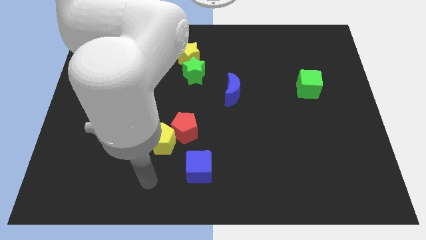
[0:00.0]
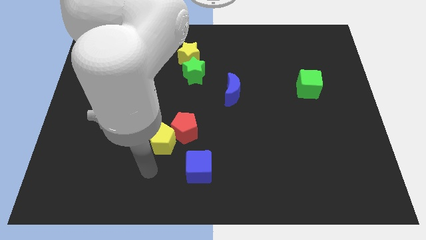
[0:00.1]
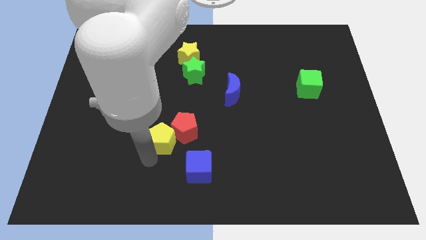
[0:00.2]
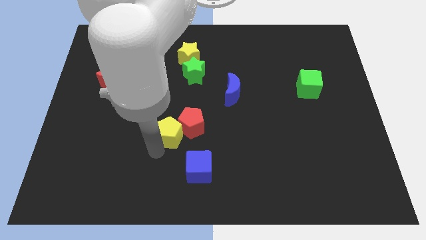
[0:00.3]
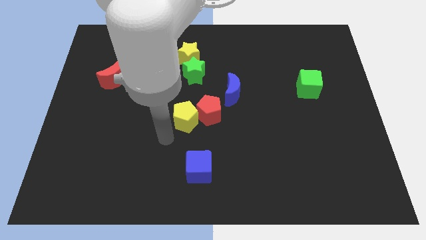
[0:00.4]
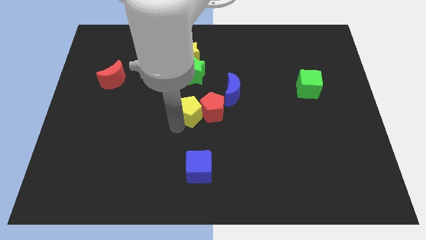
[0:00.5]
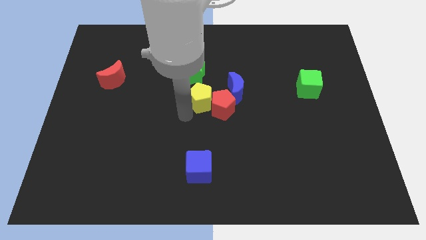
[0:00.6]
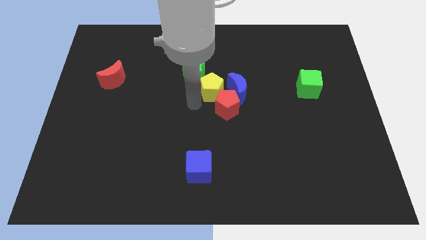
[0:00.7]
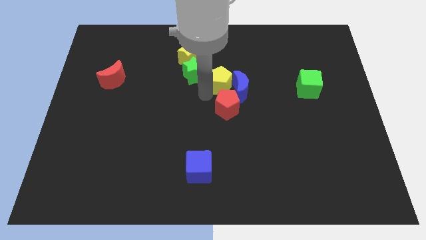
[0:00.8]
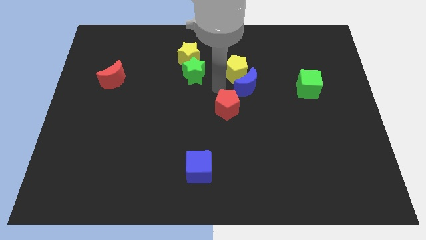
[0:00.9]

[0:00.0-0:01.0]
separate the red pentagon from the yellow pentagon

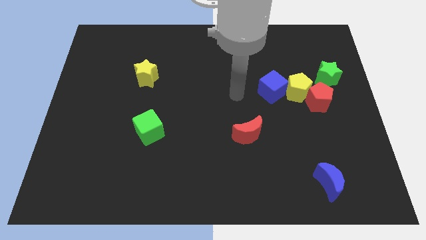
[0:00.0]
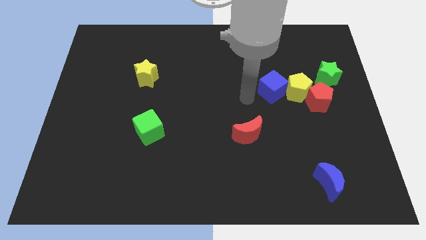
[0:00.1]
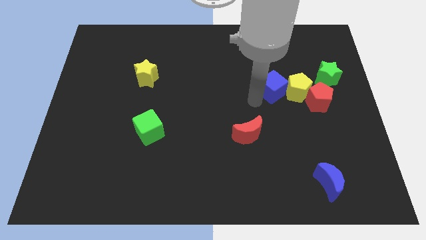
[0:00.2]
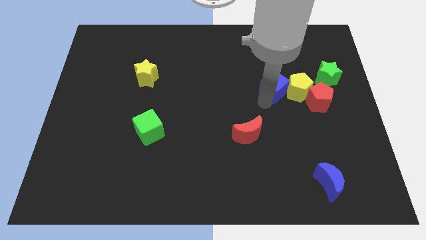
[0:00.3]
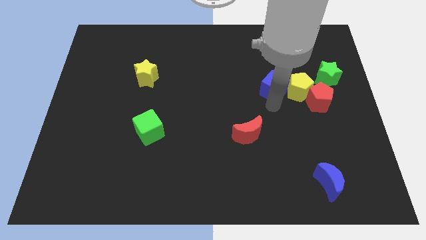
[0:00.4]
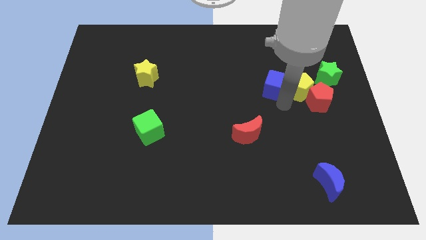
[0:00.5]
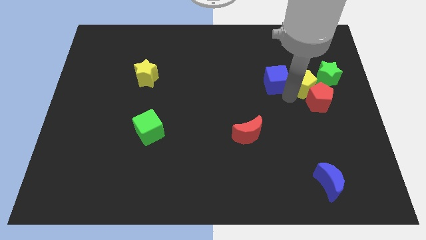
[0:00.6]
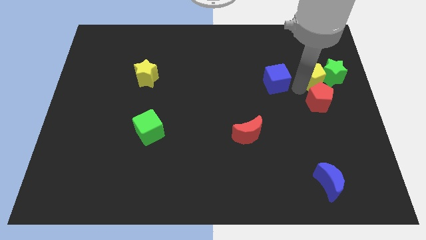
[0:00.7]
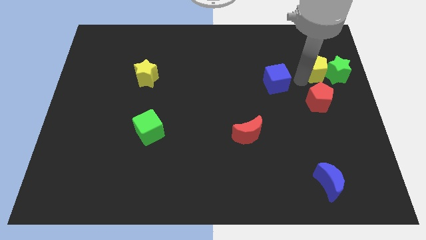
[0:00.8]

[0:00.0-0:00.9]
separate the blue cube from the yellow pentagon

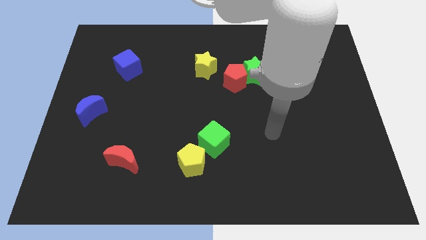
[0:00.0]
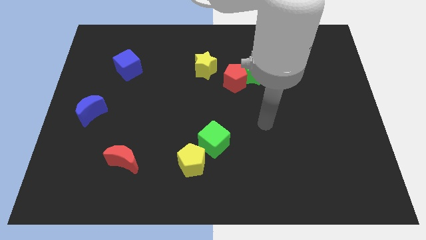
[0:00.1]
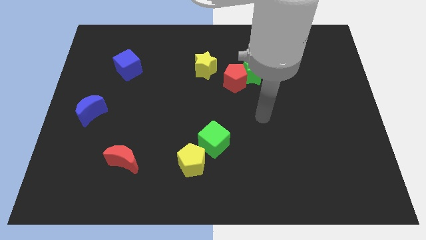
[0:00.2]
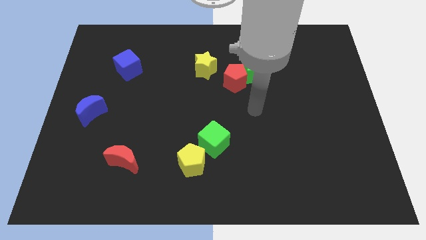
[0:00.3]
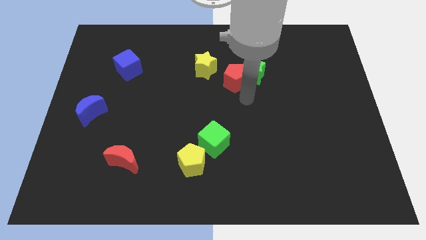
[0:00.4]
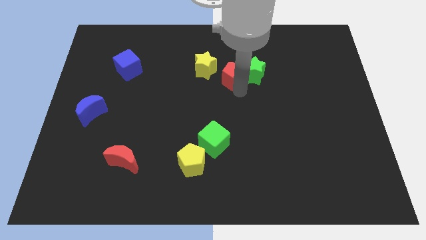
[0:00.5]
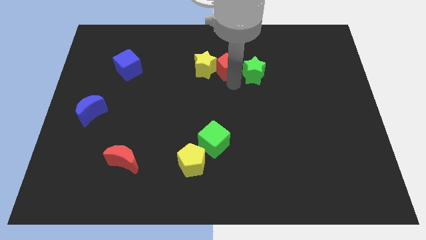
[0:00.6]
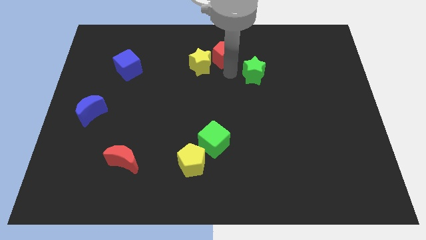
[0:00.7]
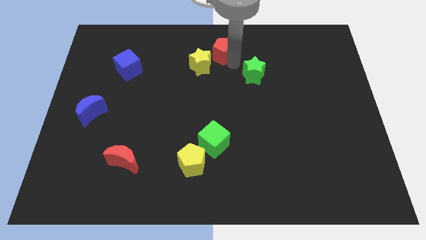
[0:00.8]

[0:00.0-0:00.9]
separate the green star from the red pentagon

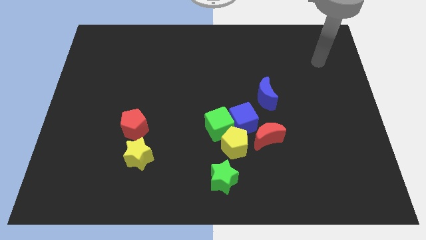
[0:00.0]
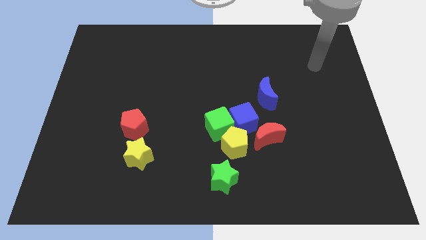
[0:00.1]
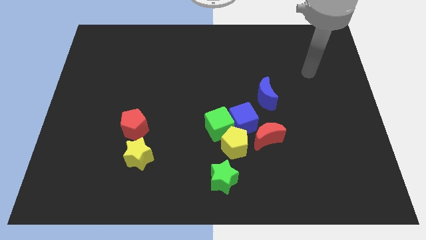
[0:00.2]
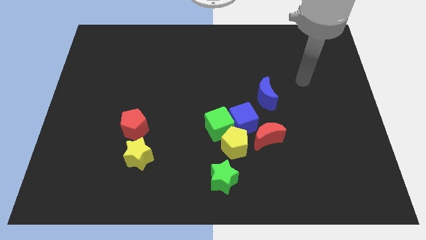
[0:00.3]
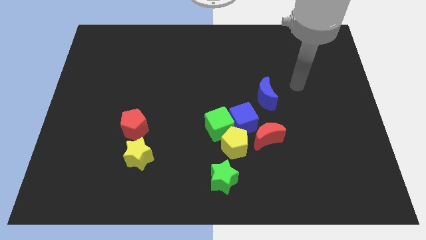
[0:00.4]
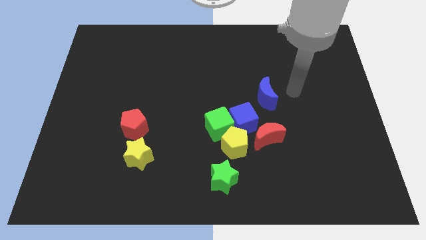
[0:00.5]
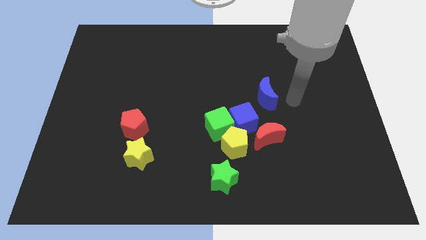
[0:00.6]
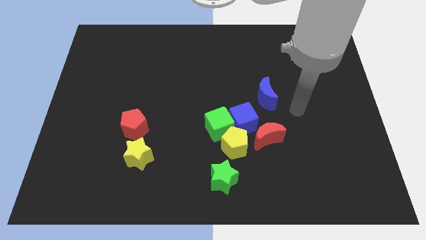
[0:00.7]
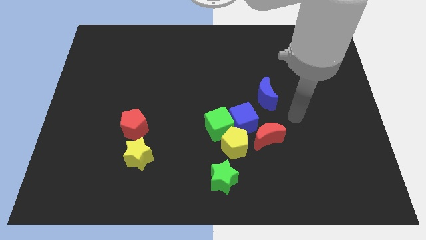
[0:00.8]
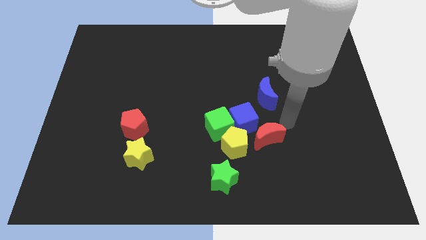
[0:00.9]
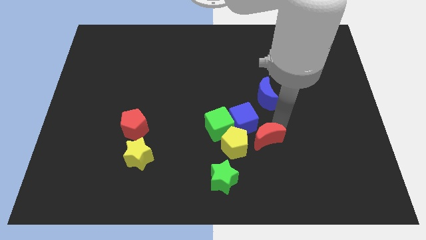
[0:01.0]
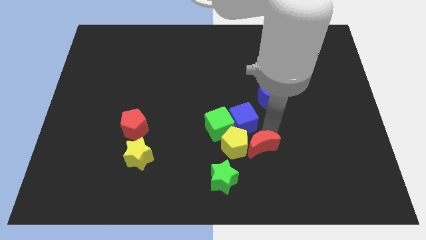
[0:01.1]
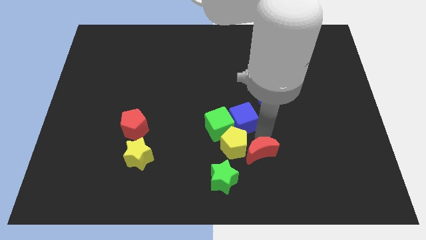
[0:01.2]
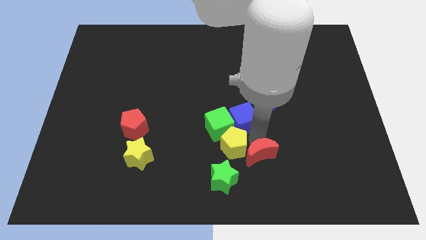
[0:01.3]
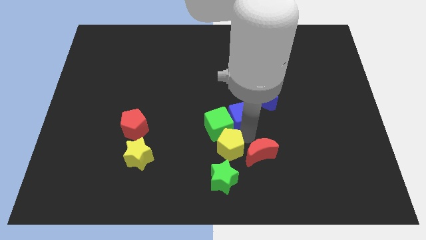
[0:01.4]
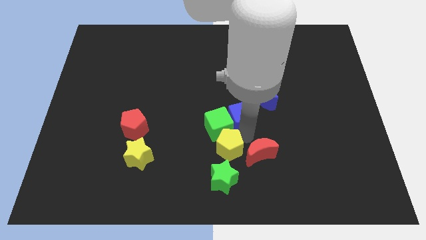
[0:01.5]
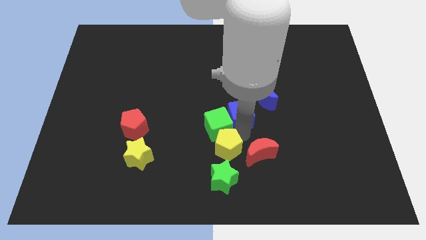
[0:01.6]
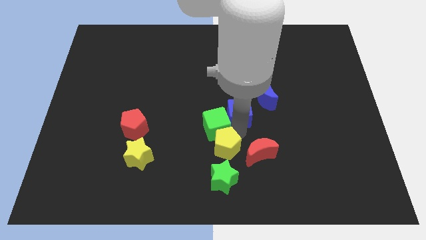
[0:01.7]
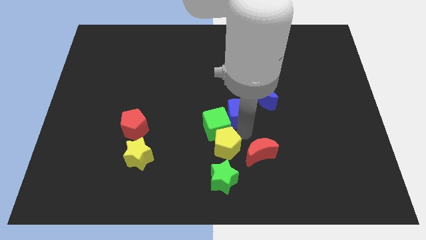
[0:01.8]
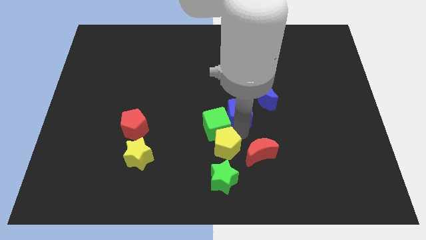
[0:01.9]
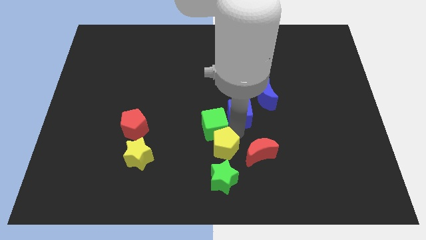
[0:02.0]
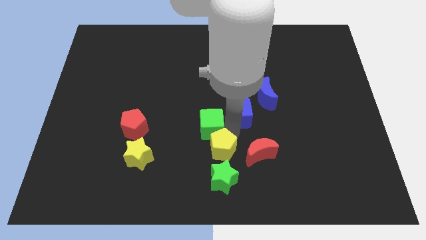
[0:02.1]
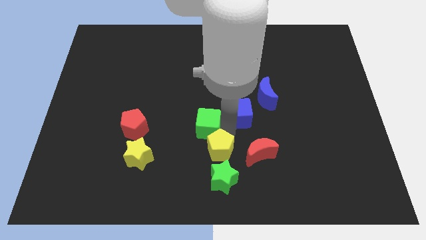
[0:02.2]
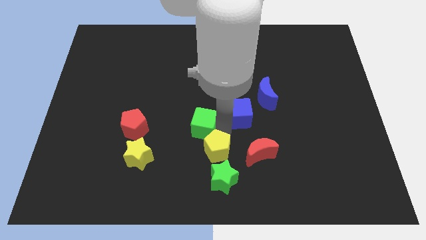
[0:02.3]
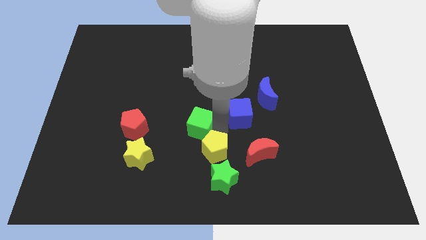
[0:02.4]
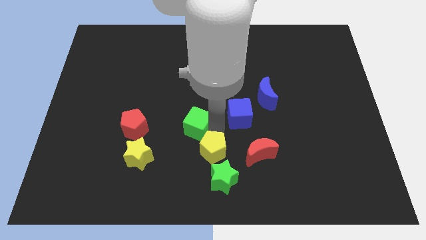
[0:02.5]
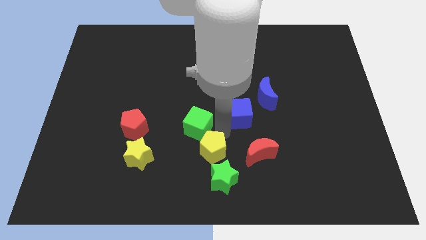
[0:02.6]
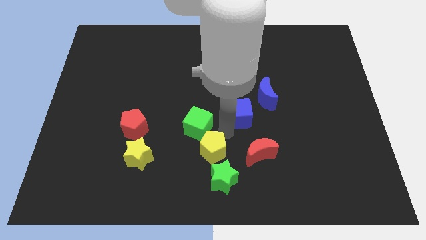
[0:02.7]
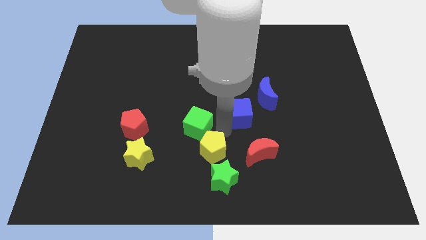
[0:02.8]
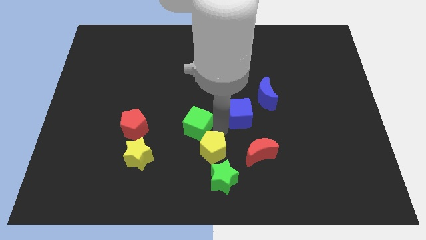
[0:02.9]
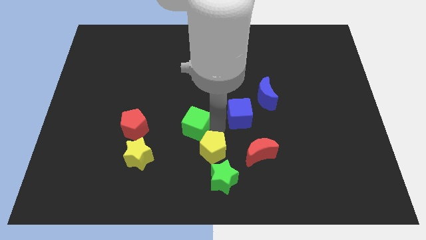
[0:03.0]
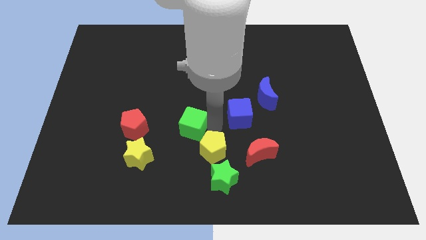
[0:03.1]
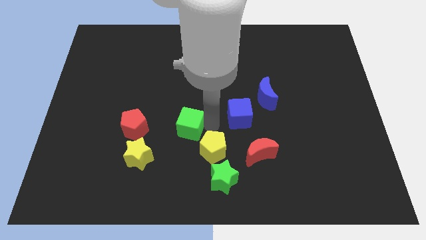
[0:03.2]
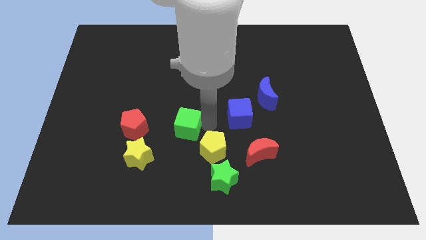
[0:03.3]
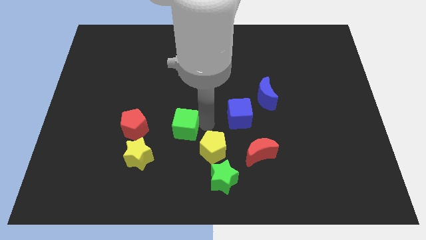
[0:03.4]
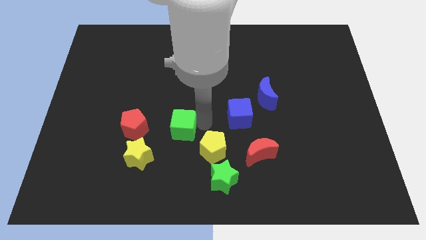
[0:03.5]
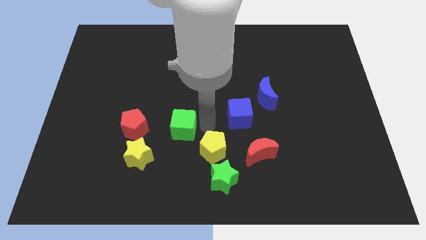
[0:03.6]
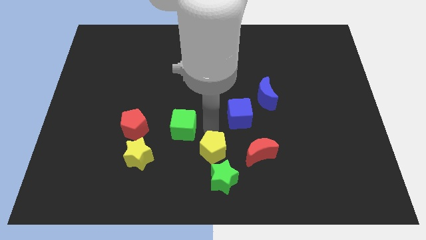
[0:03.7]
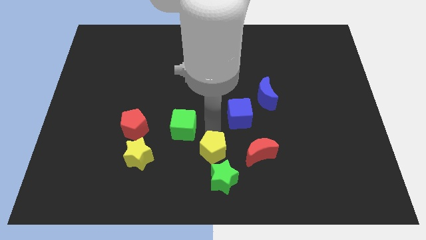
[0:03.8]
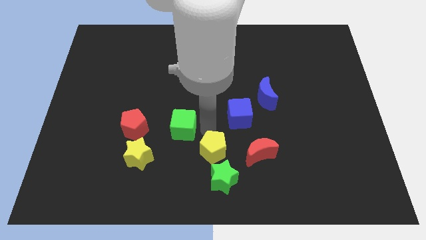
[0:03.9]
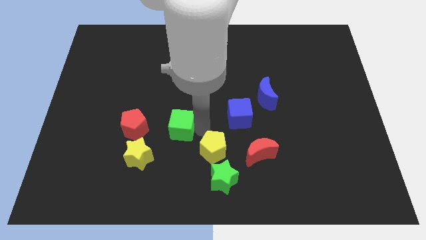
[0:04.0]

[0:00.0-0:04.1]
move the green cube away from the blue cube and yellow pentagon

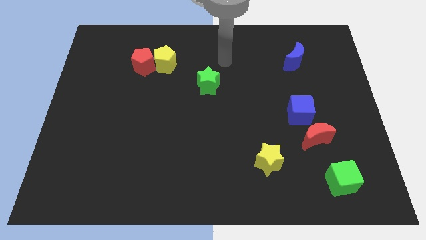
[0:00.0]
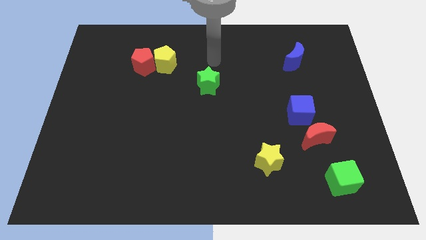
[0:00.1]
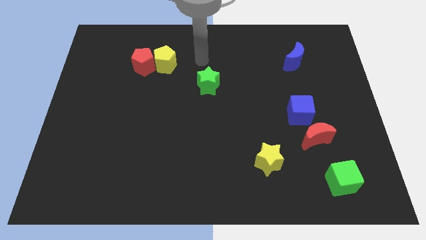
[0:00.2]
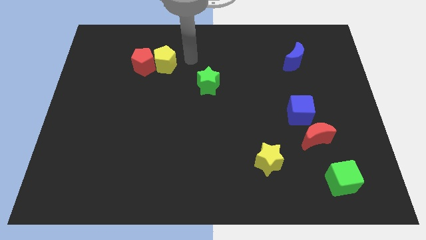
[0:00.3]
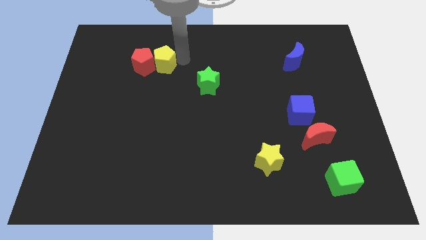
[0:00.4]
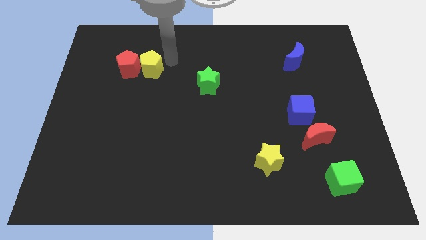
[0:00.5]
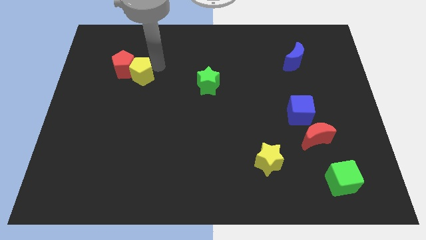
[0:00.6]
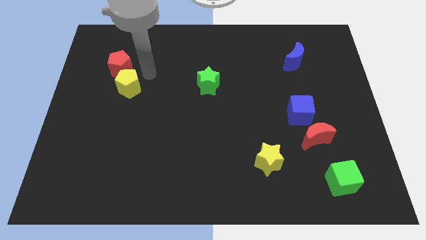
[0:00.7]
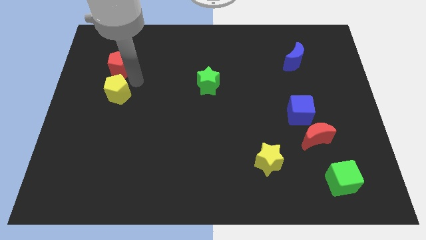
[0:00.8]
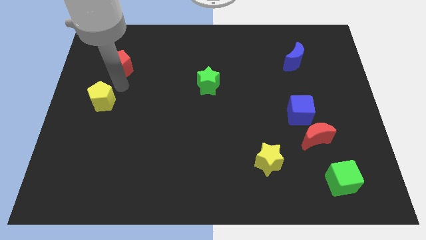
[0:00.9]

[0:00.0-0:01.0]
move the red pentagon away from the yellow pentagon

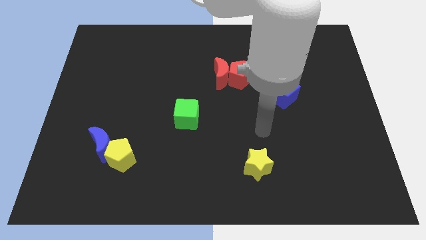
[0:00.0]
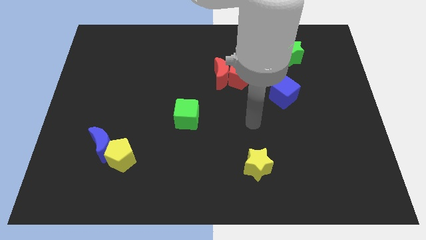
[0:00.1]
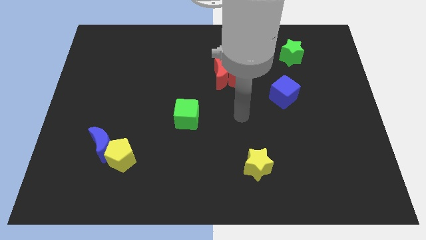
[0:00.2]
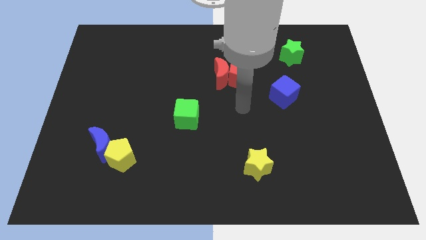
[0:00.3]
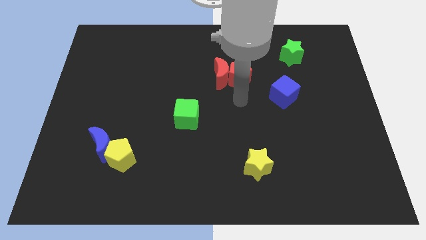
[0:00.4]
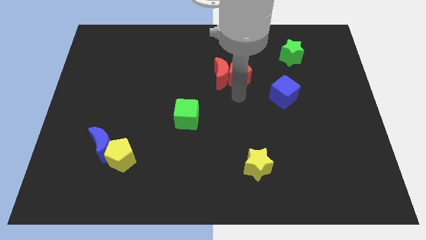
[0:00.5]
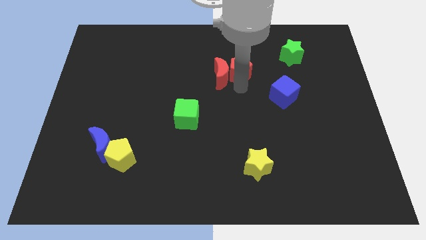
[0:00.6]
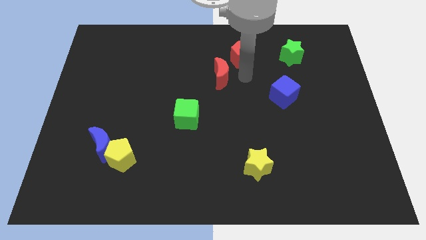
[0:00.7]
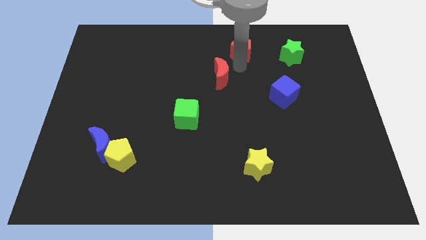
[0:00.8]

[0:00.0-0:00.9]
separate the red moon from the red pentagon

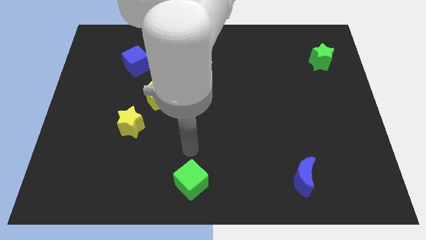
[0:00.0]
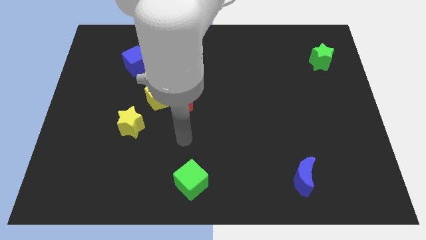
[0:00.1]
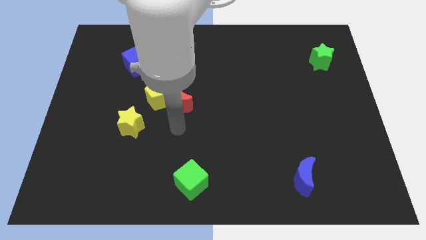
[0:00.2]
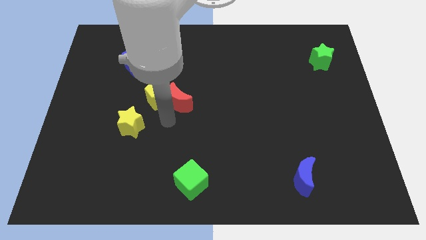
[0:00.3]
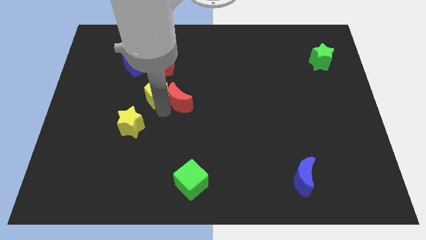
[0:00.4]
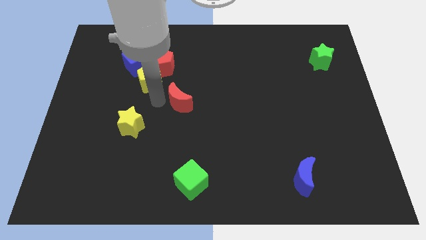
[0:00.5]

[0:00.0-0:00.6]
pull the red moon apart from the yellow pentagon
